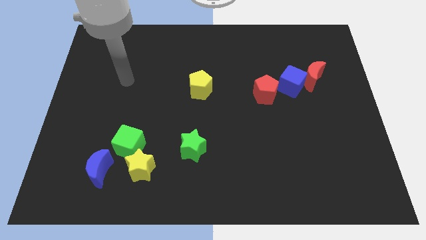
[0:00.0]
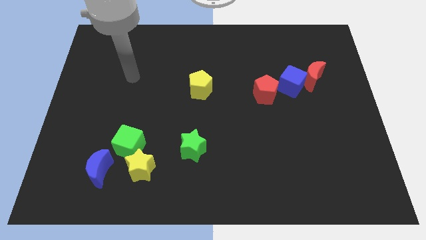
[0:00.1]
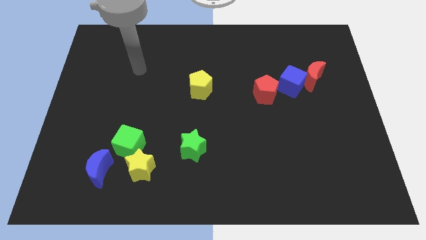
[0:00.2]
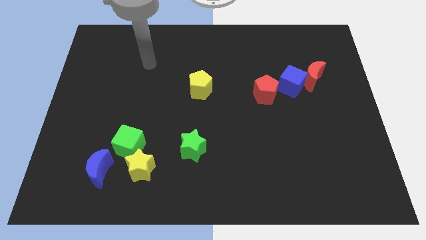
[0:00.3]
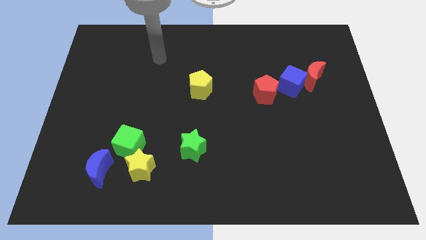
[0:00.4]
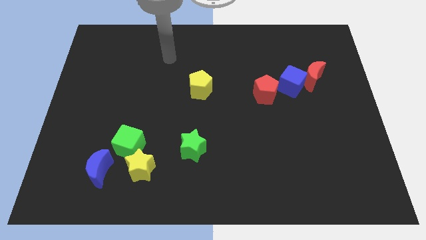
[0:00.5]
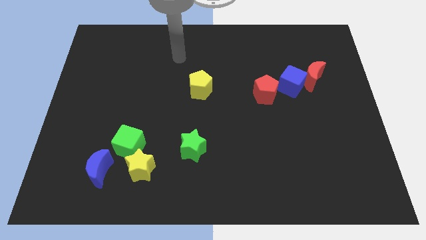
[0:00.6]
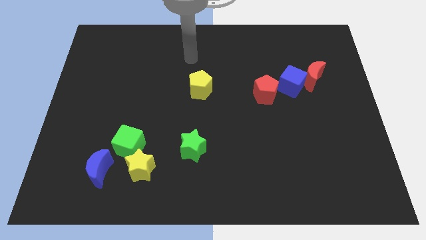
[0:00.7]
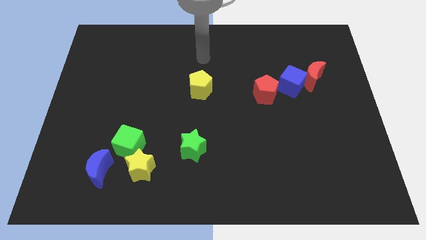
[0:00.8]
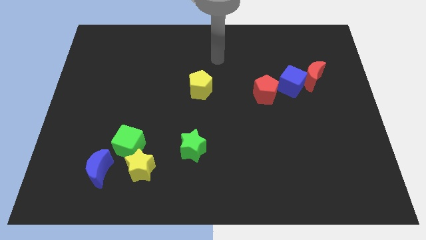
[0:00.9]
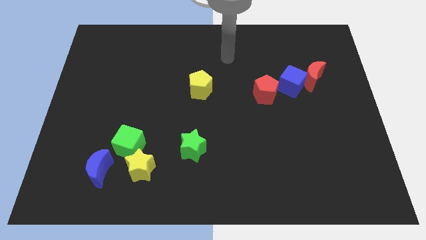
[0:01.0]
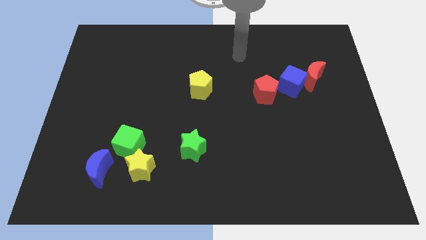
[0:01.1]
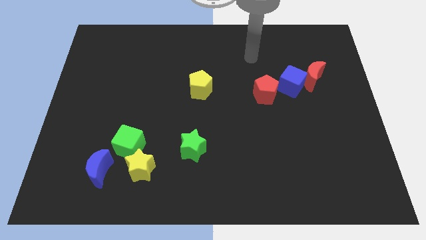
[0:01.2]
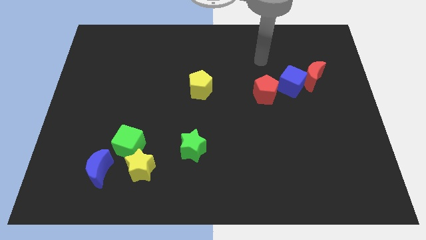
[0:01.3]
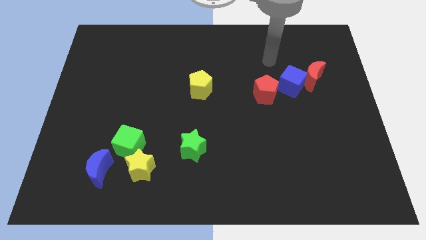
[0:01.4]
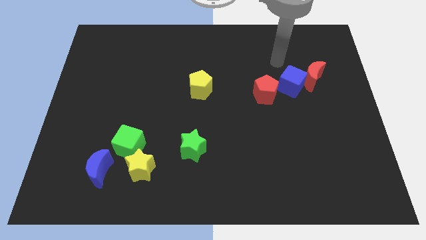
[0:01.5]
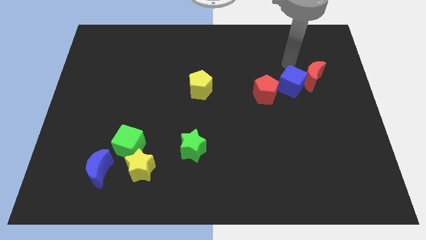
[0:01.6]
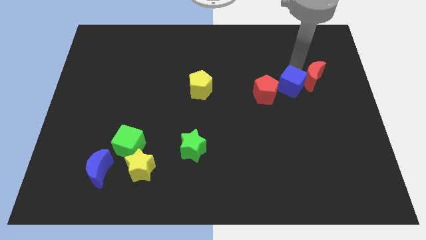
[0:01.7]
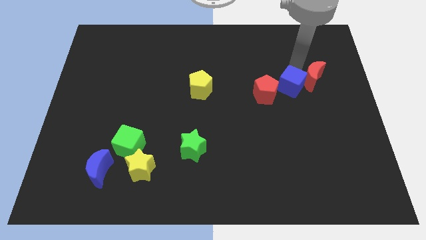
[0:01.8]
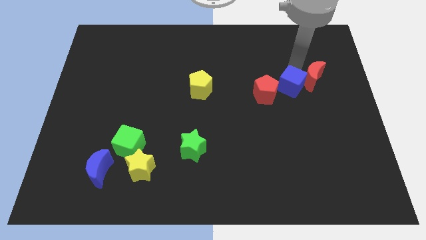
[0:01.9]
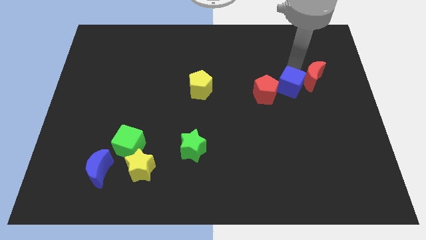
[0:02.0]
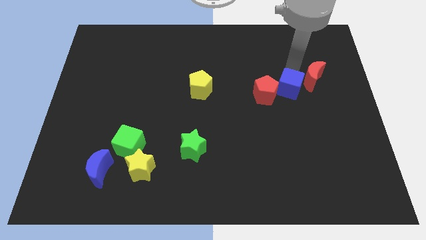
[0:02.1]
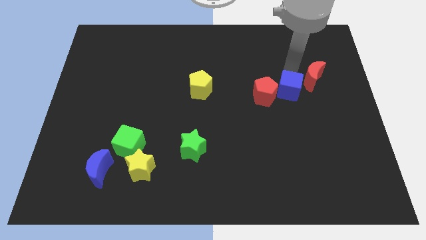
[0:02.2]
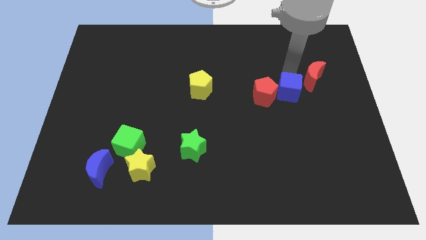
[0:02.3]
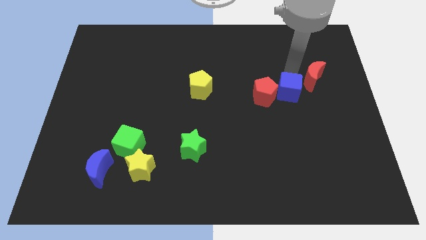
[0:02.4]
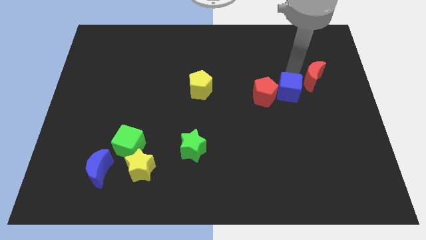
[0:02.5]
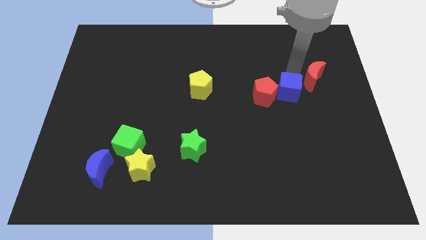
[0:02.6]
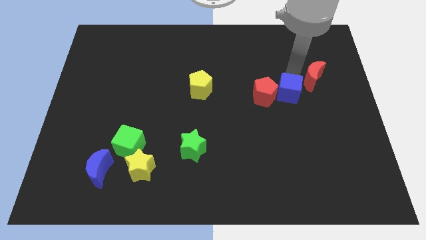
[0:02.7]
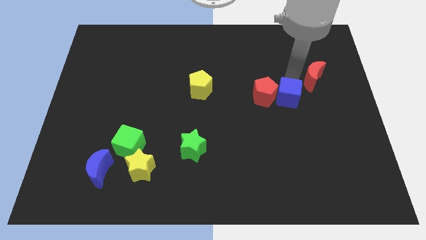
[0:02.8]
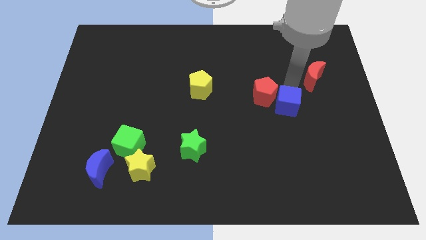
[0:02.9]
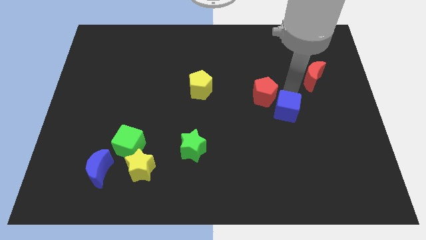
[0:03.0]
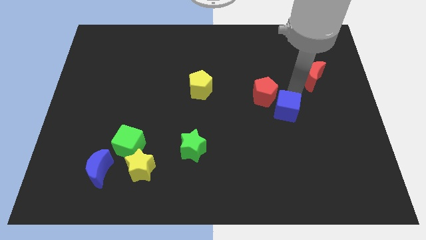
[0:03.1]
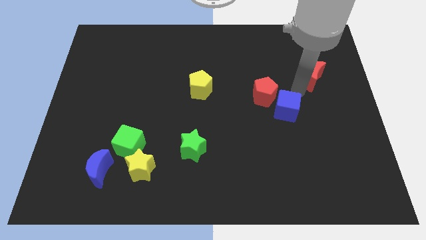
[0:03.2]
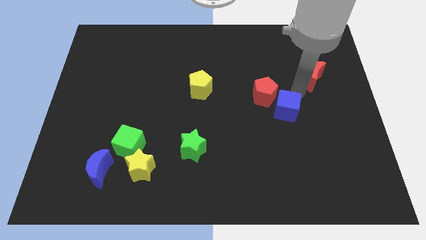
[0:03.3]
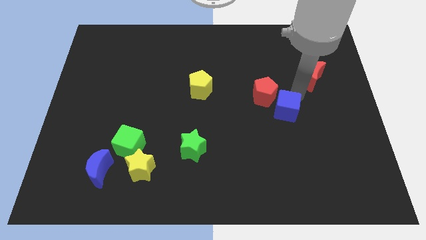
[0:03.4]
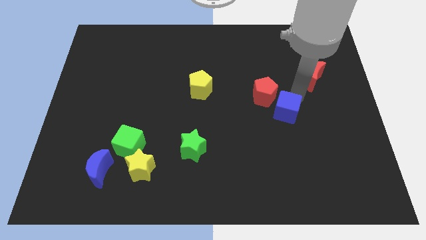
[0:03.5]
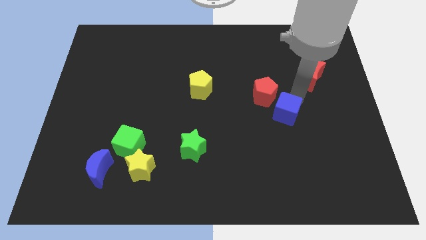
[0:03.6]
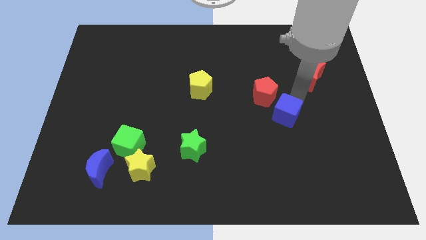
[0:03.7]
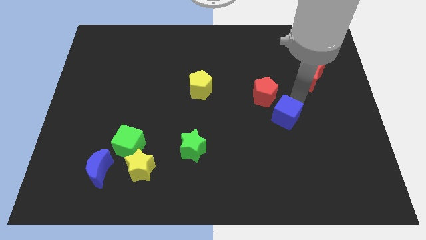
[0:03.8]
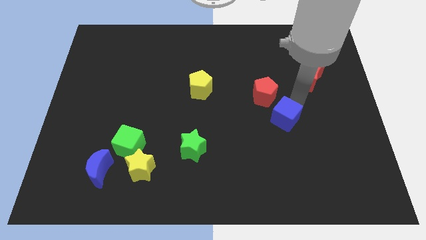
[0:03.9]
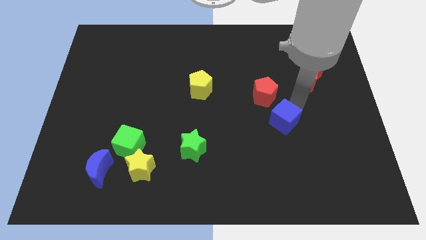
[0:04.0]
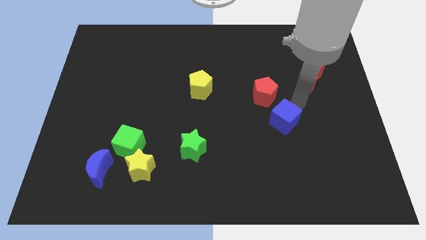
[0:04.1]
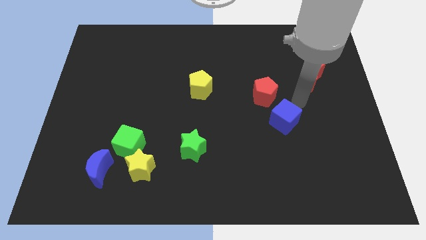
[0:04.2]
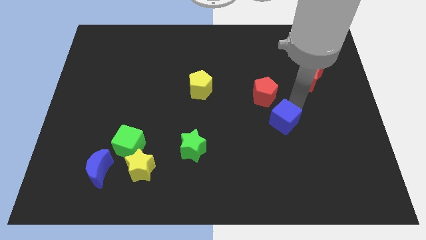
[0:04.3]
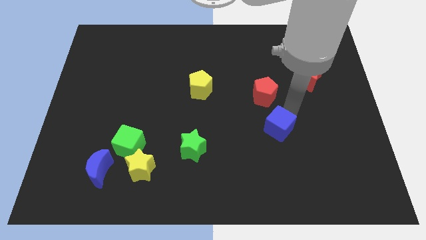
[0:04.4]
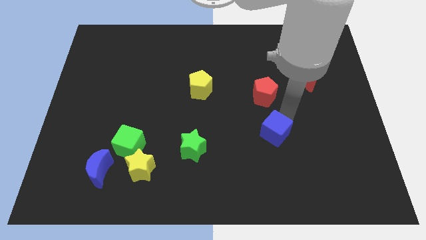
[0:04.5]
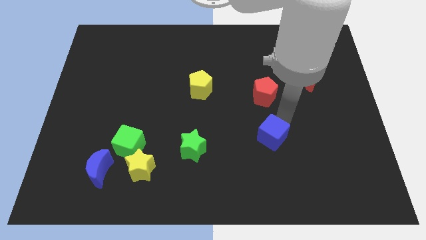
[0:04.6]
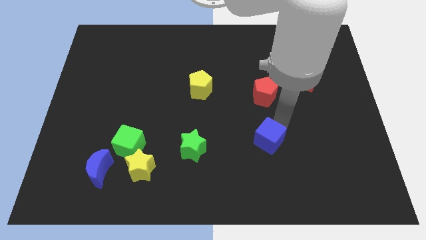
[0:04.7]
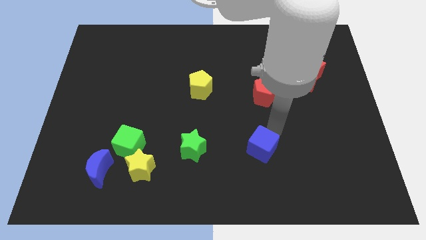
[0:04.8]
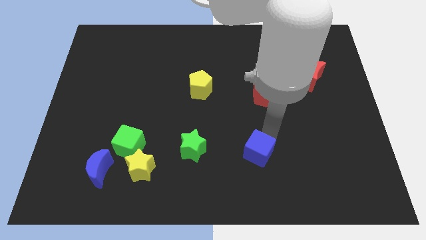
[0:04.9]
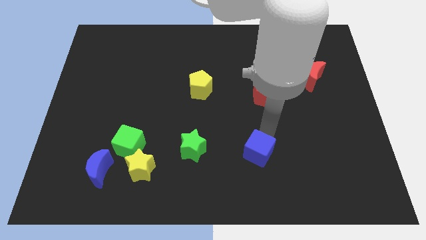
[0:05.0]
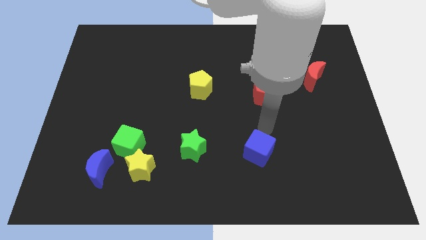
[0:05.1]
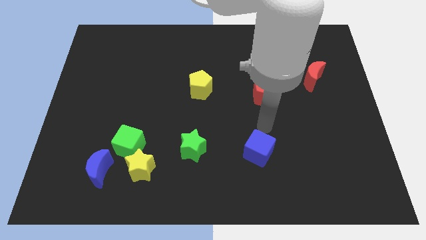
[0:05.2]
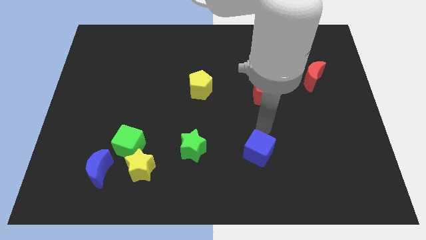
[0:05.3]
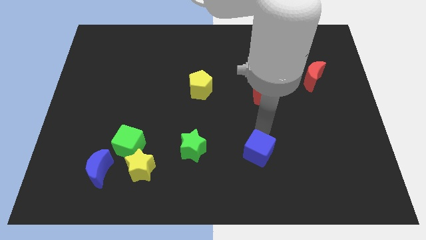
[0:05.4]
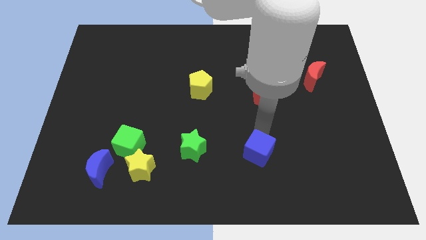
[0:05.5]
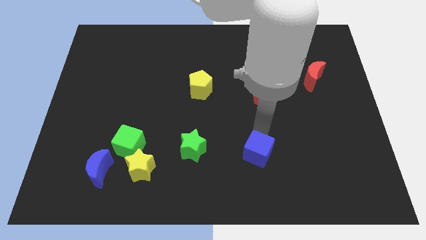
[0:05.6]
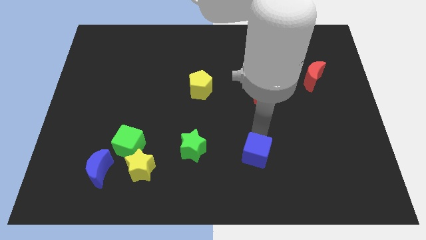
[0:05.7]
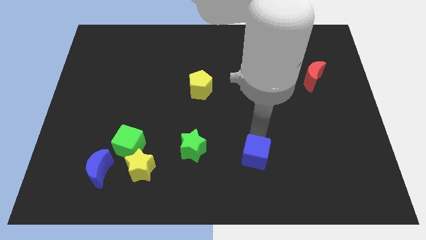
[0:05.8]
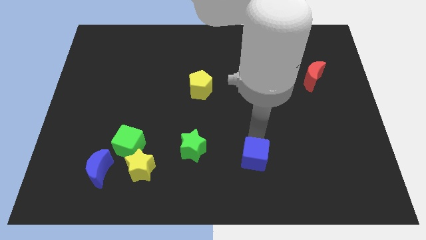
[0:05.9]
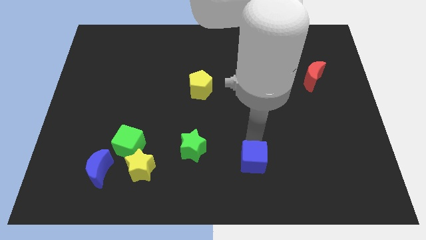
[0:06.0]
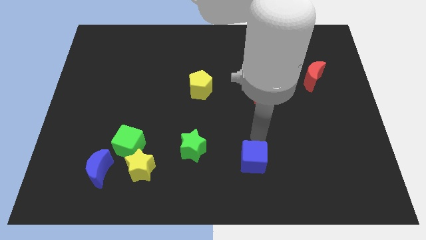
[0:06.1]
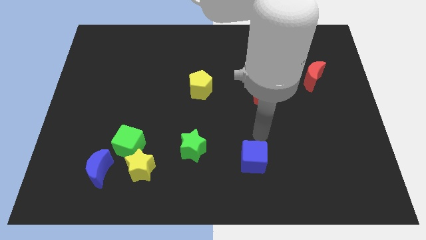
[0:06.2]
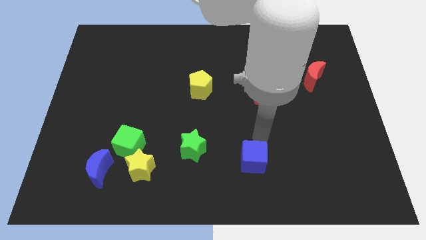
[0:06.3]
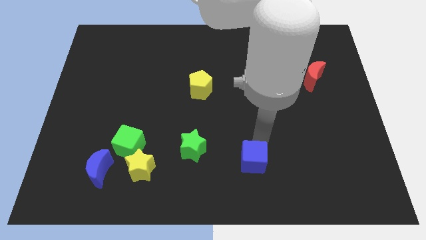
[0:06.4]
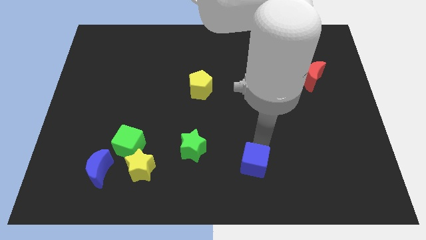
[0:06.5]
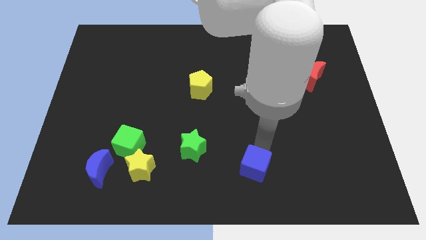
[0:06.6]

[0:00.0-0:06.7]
push the blue cube to the bottom side

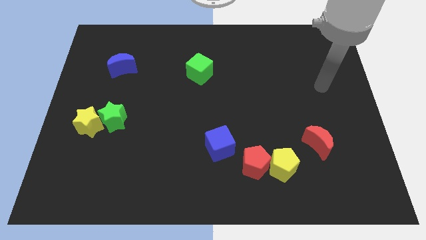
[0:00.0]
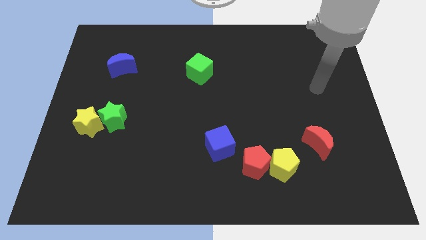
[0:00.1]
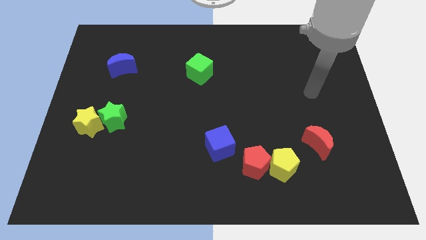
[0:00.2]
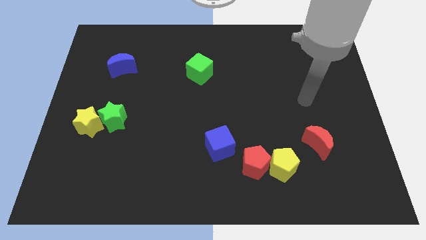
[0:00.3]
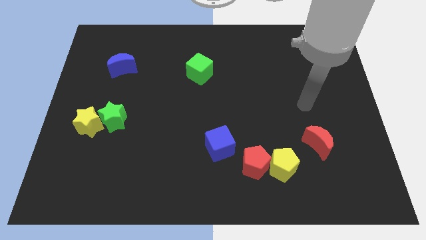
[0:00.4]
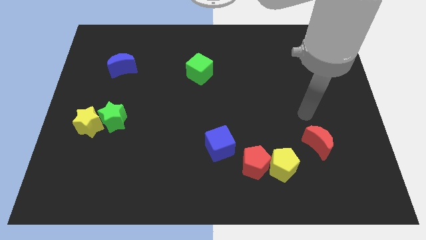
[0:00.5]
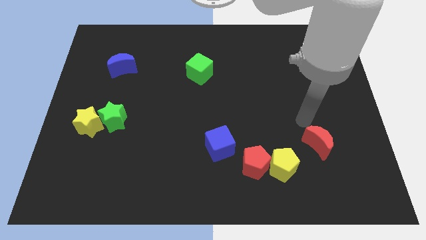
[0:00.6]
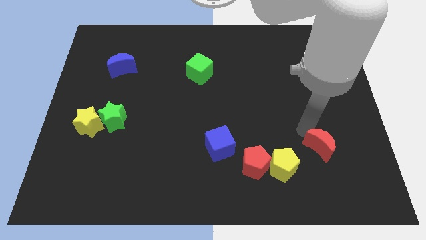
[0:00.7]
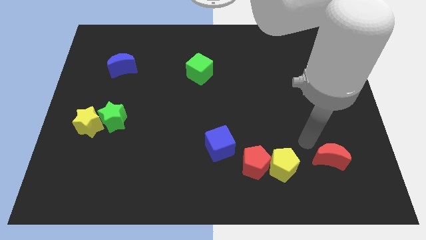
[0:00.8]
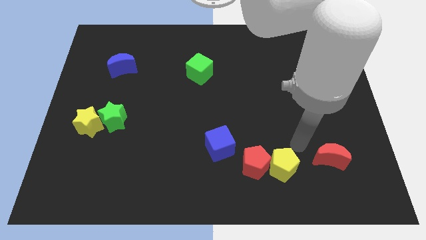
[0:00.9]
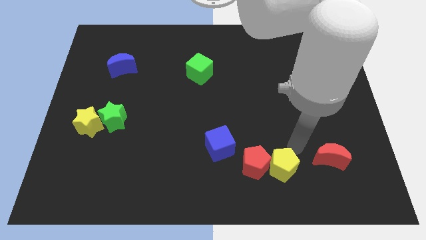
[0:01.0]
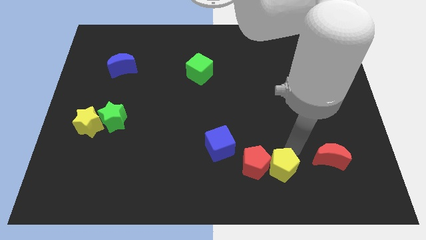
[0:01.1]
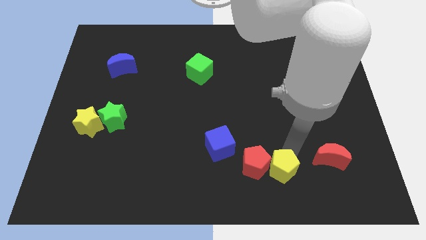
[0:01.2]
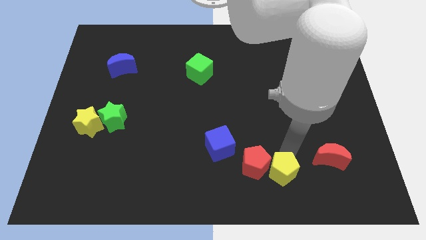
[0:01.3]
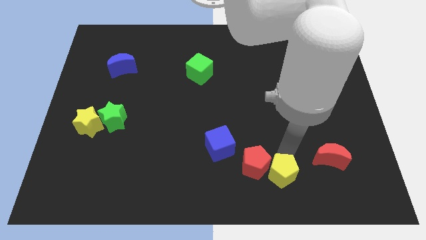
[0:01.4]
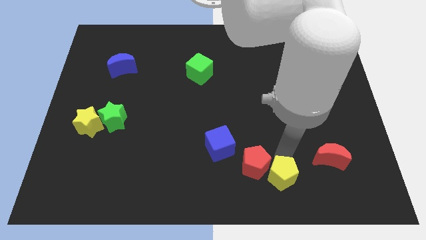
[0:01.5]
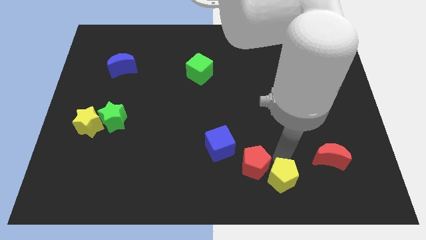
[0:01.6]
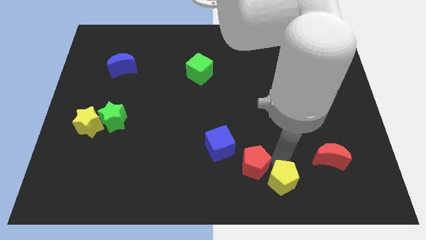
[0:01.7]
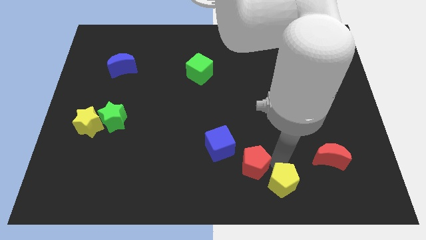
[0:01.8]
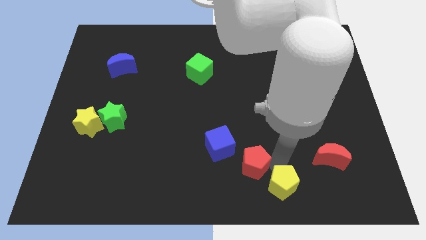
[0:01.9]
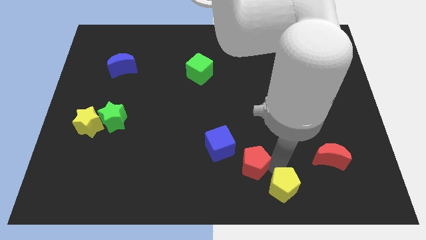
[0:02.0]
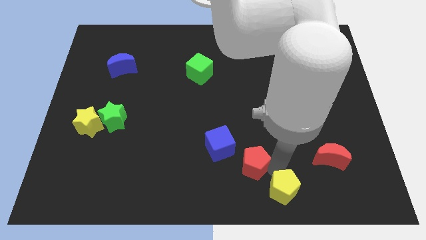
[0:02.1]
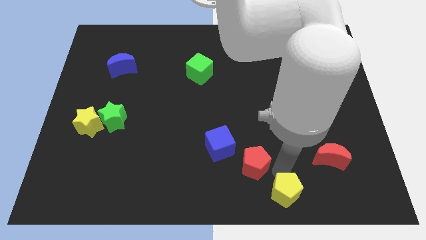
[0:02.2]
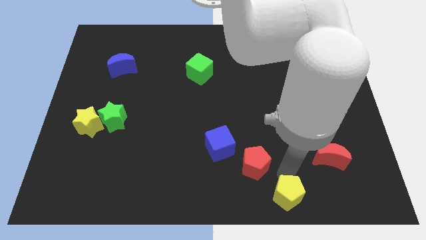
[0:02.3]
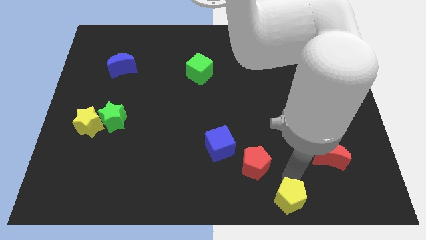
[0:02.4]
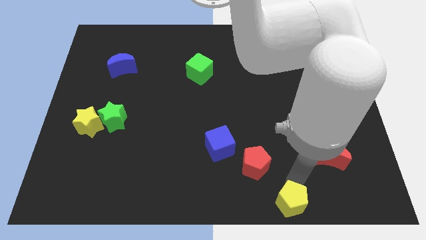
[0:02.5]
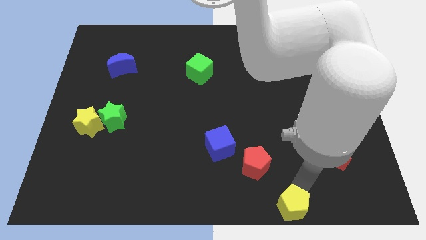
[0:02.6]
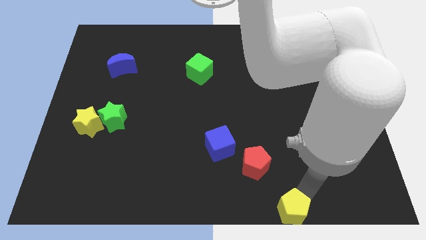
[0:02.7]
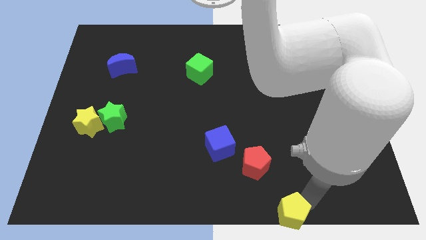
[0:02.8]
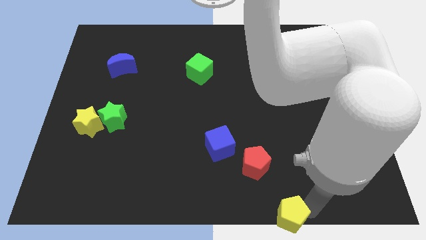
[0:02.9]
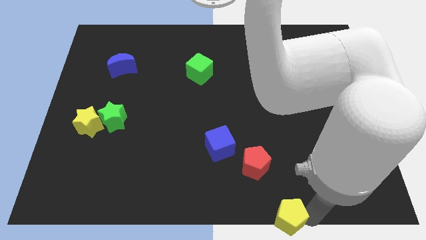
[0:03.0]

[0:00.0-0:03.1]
push the yellow pentagon to the bottom
